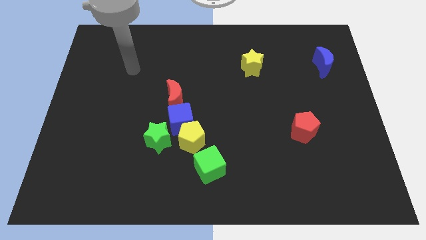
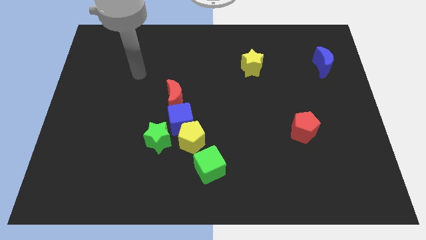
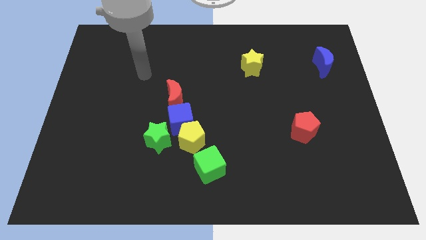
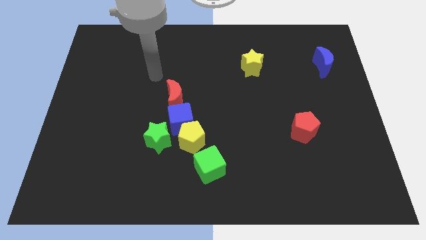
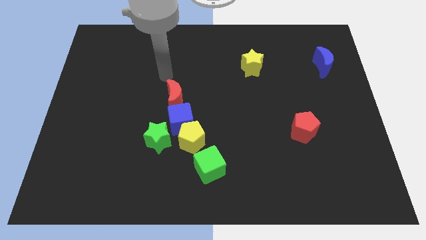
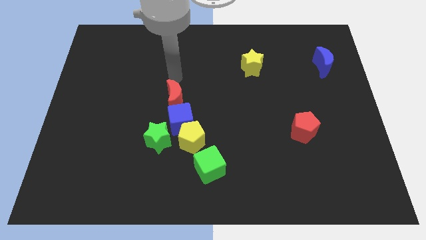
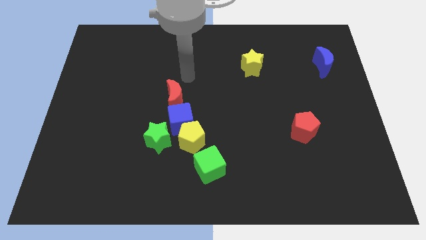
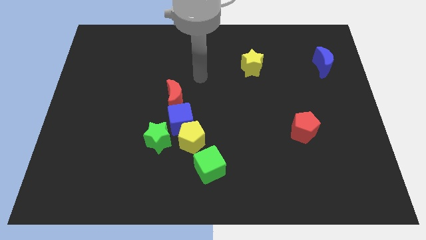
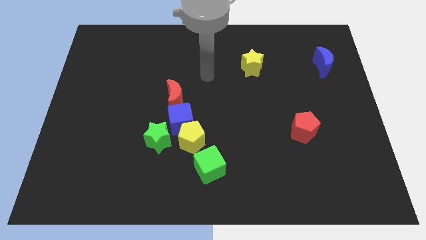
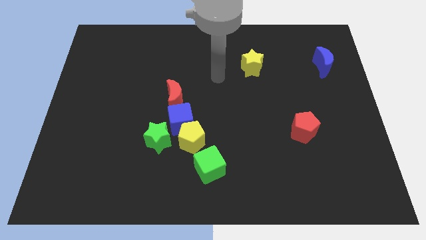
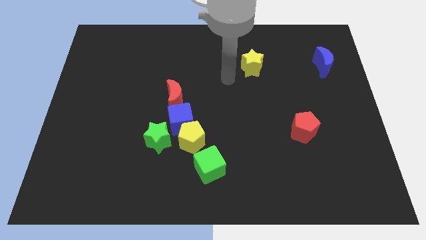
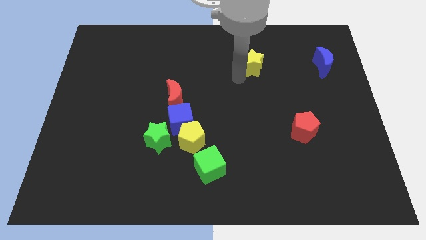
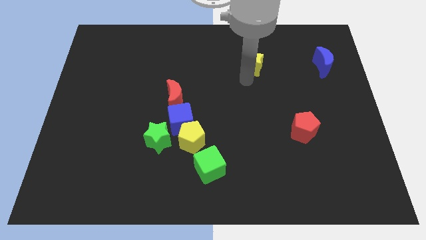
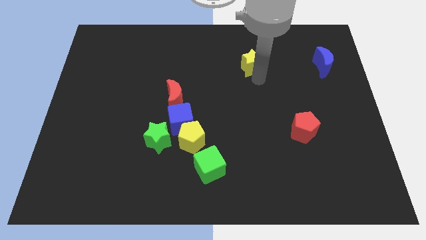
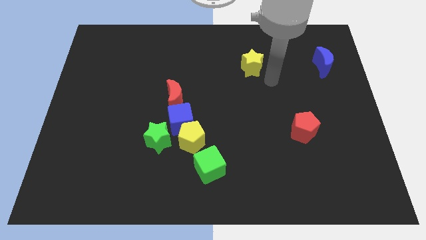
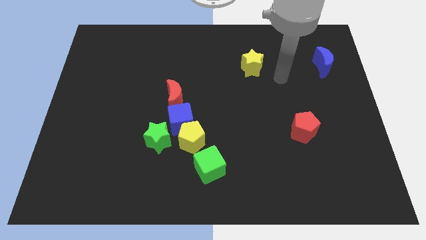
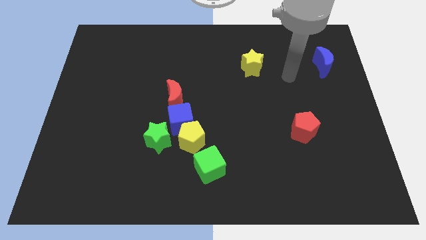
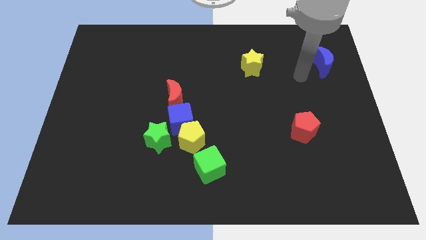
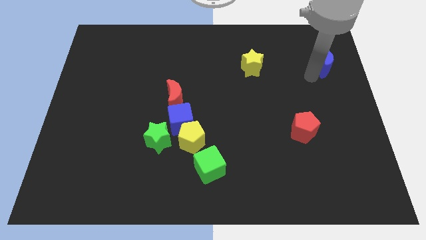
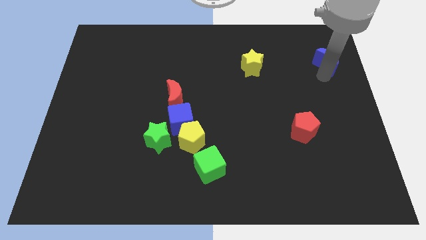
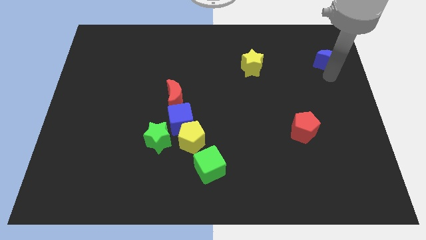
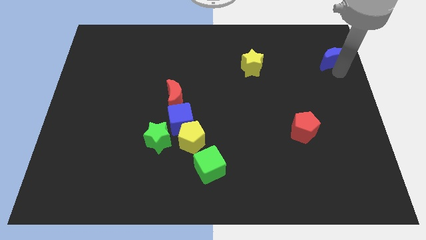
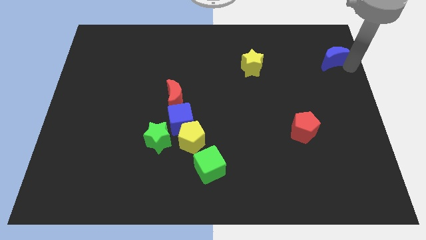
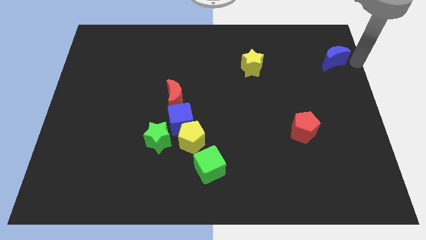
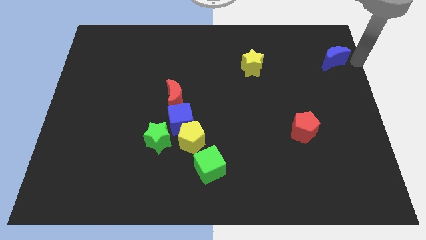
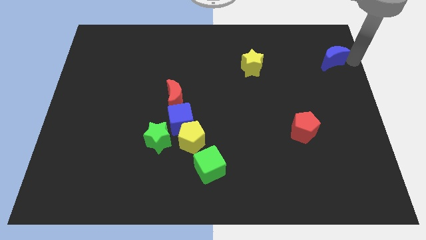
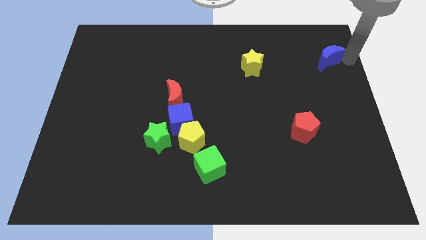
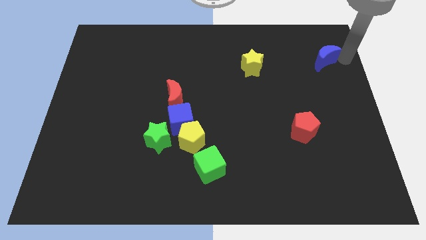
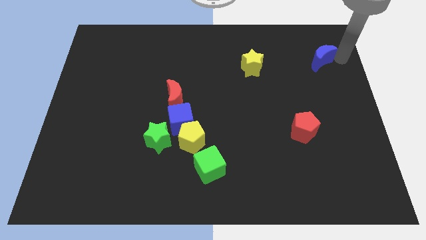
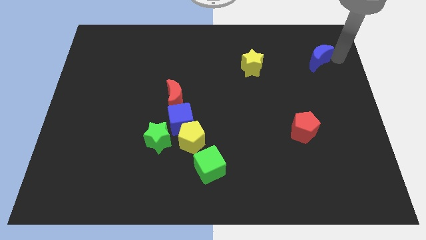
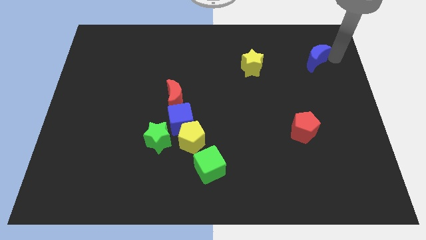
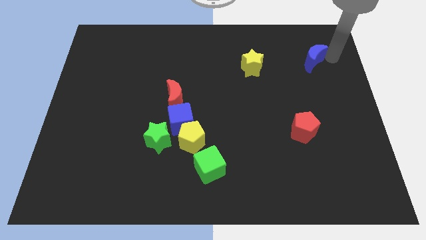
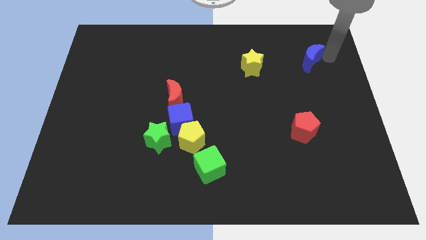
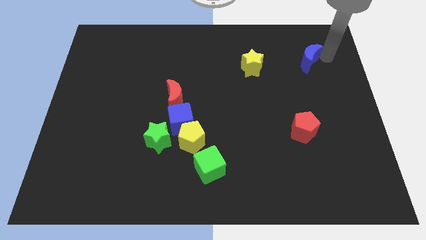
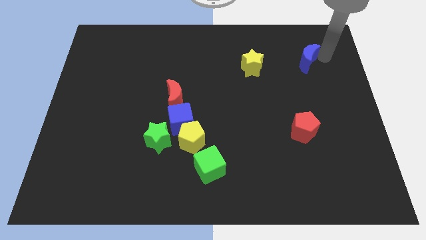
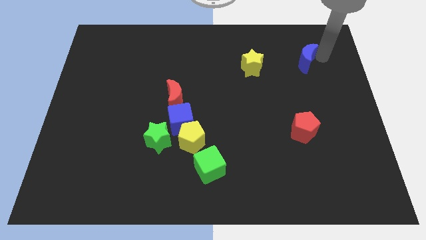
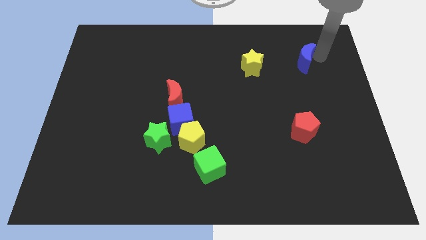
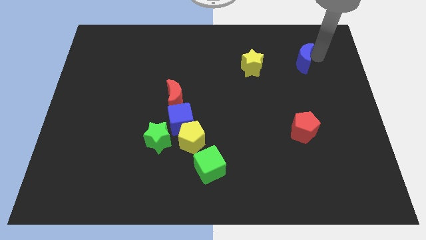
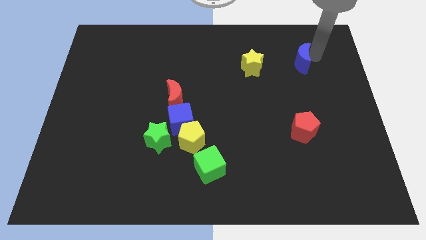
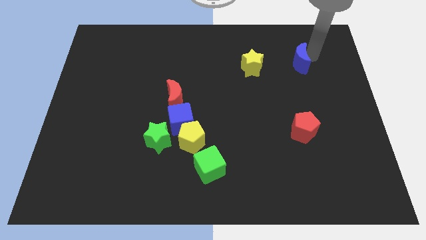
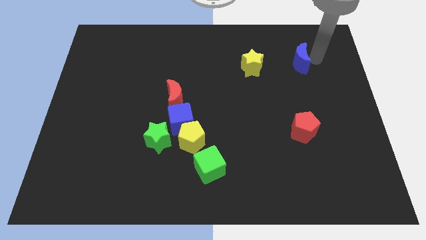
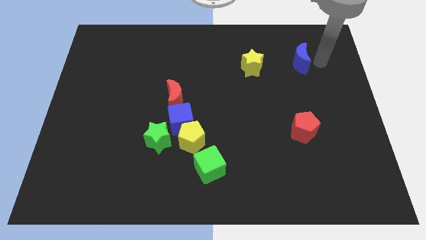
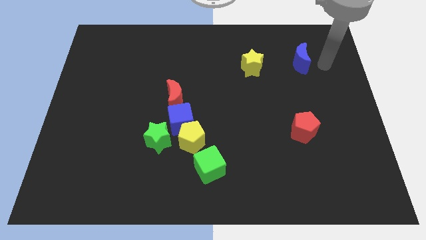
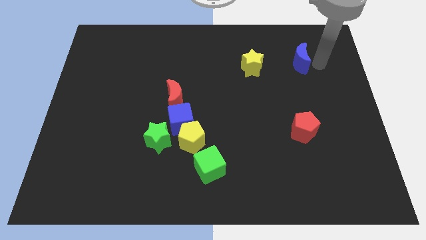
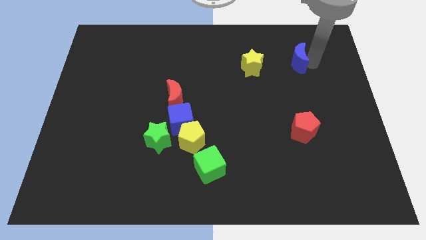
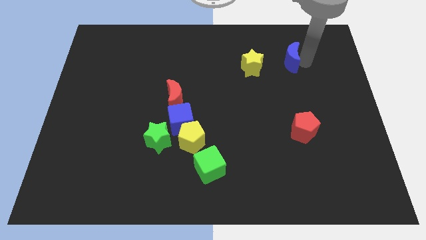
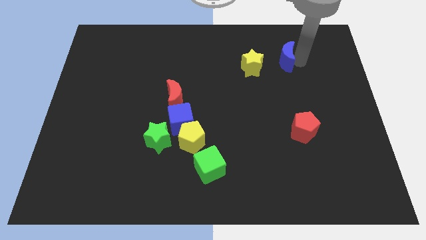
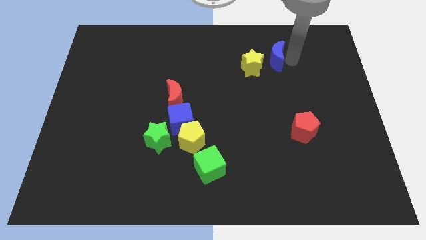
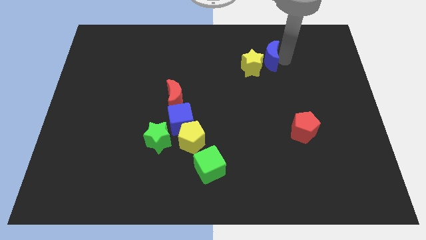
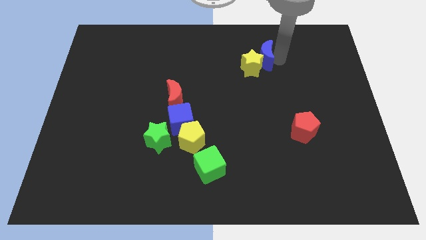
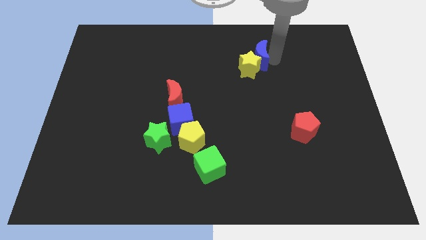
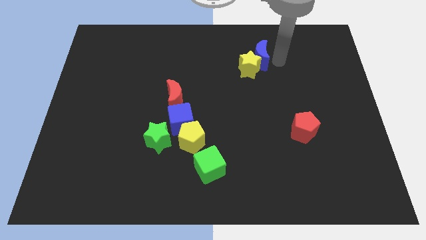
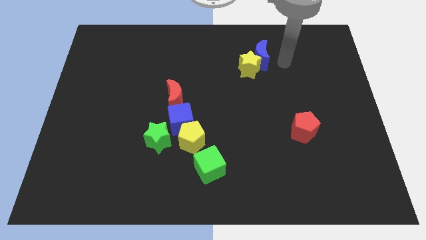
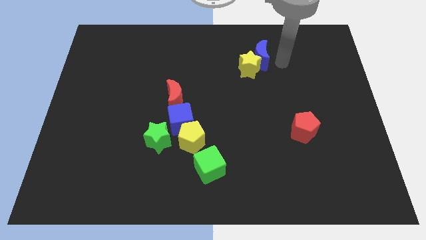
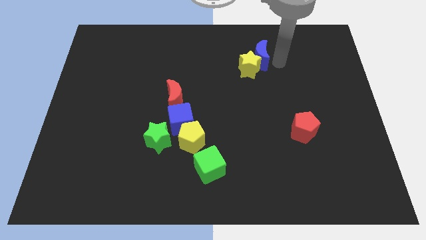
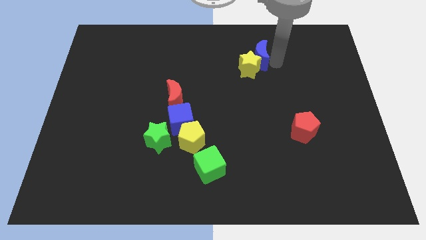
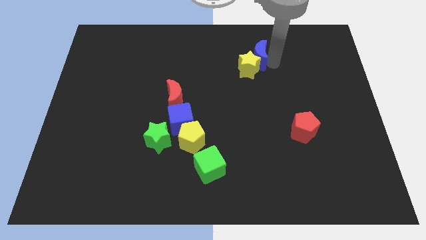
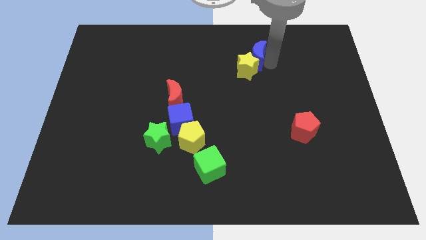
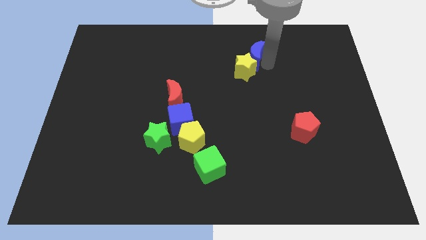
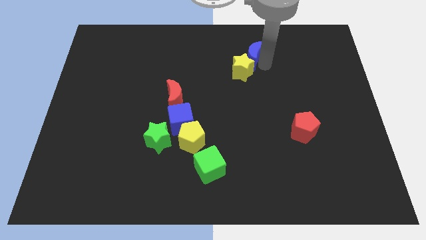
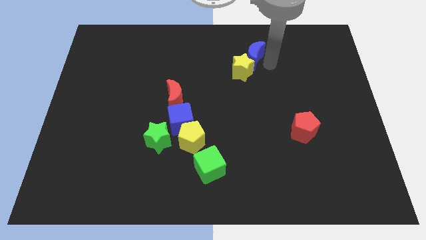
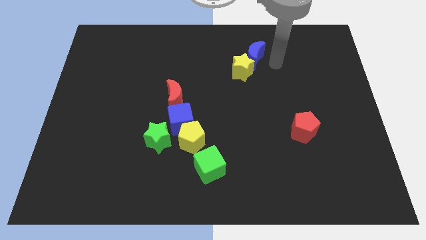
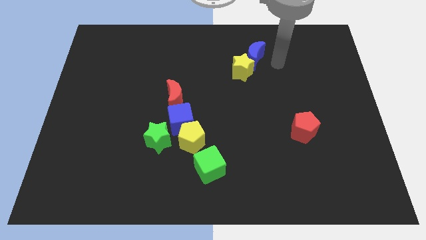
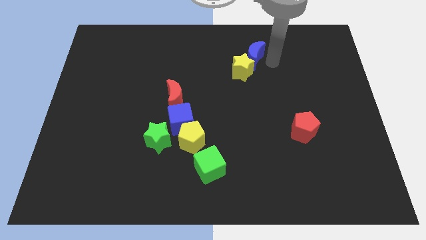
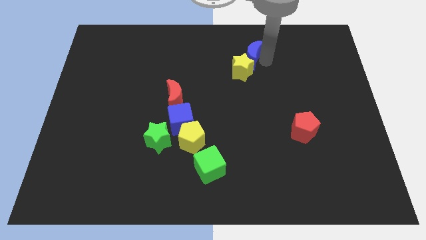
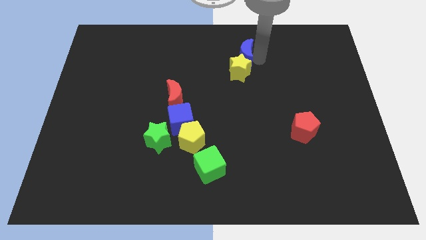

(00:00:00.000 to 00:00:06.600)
slide the blue moon to the left

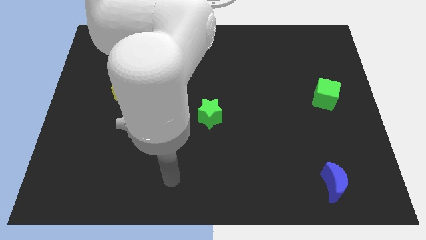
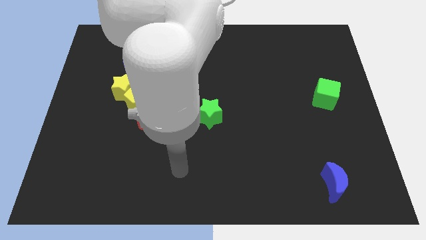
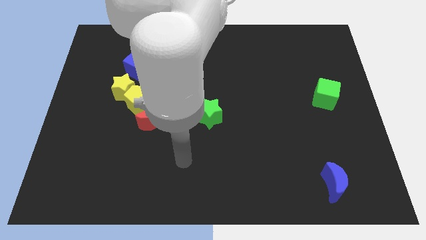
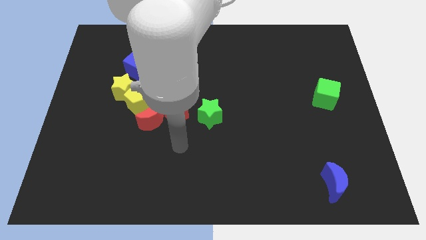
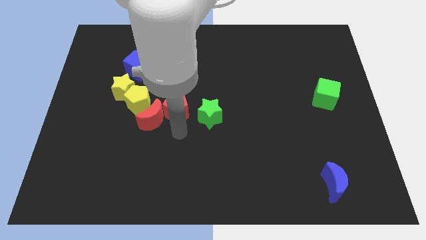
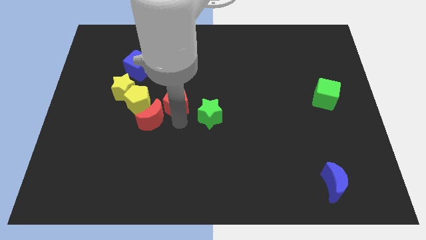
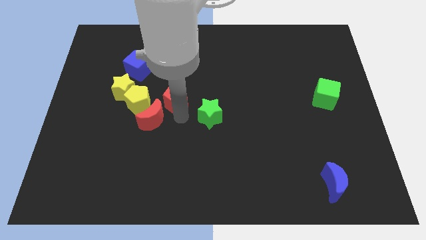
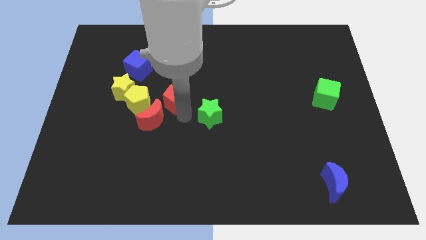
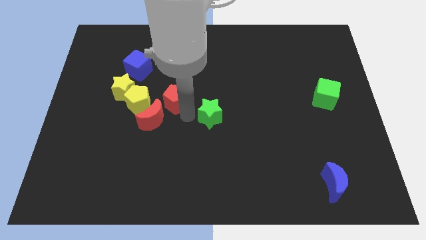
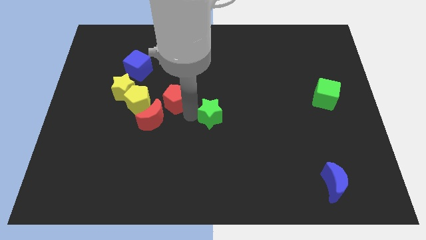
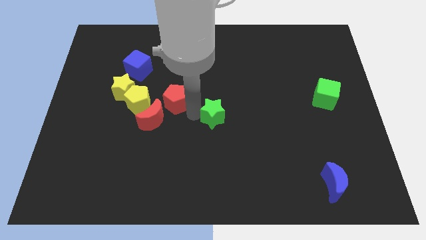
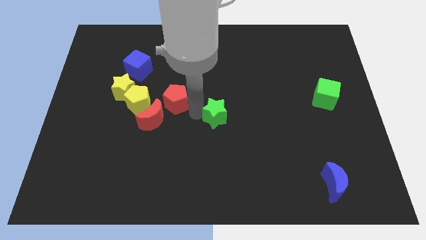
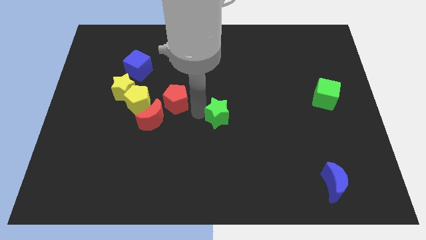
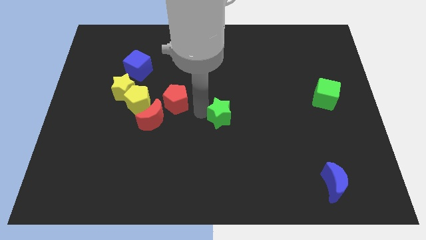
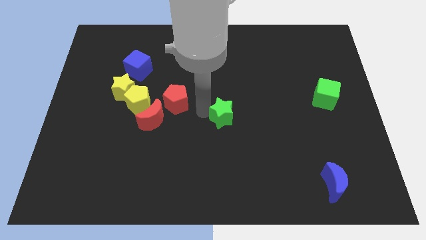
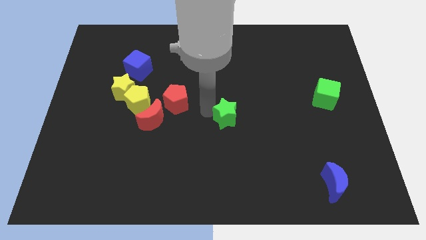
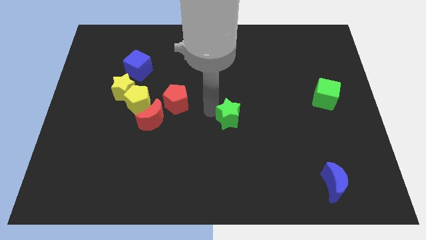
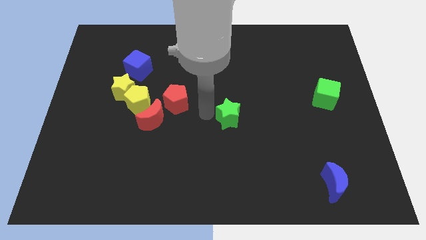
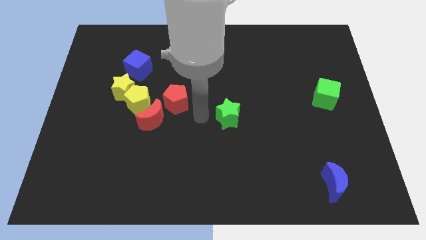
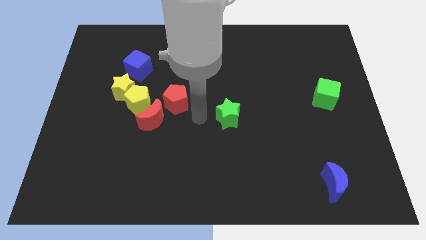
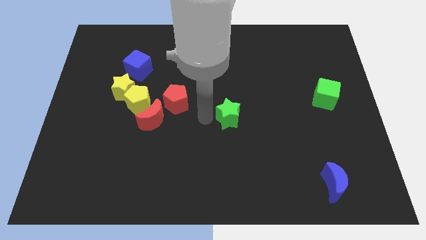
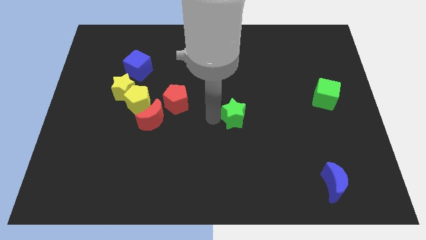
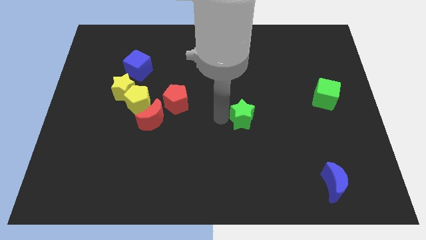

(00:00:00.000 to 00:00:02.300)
push the green star slightly right
